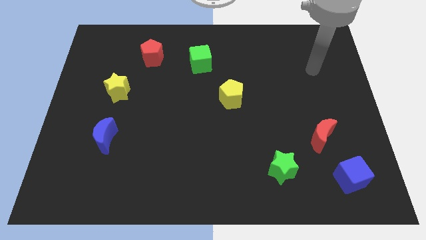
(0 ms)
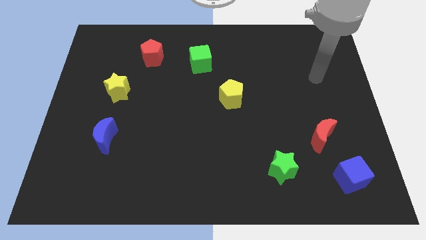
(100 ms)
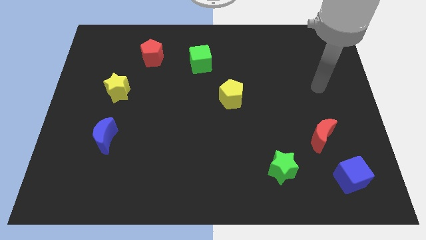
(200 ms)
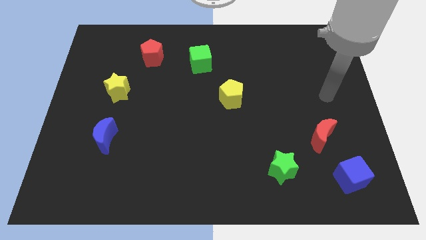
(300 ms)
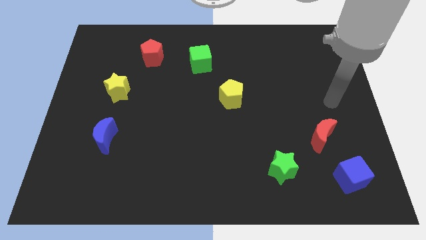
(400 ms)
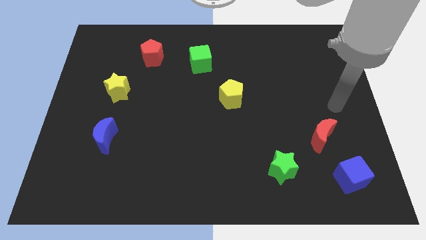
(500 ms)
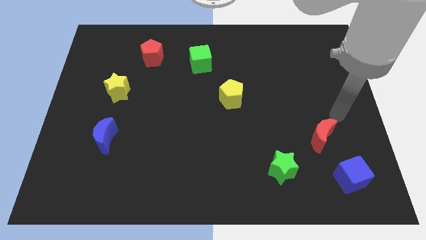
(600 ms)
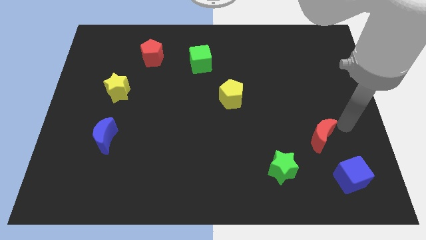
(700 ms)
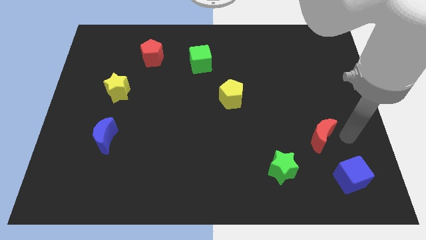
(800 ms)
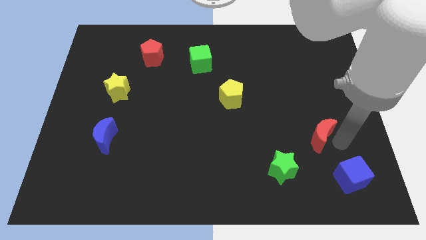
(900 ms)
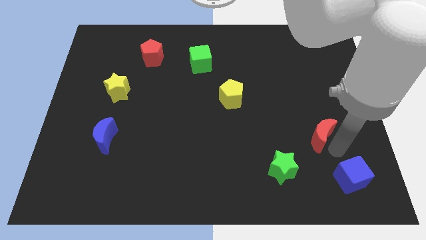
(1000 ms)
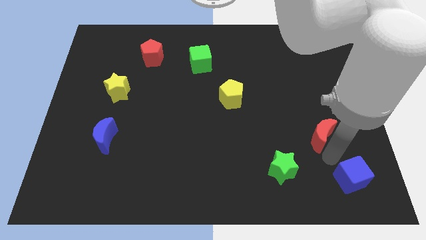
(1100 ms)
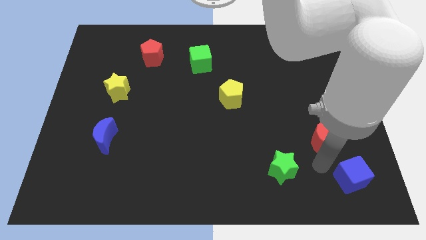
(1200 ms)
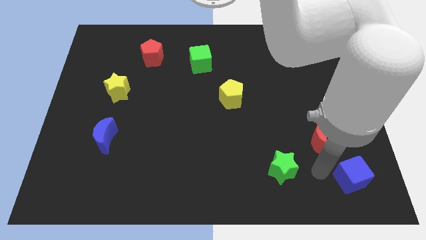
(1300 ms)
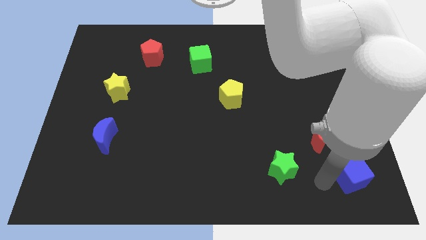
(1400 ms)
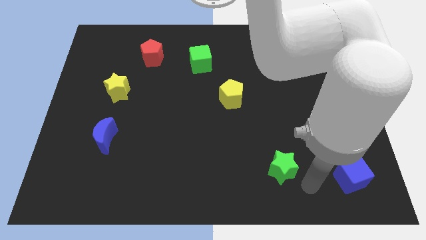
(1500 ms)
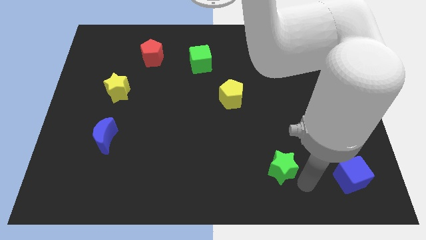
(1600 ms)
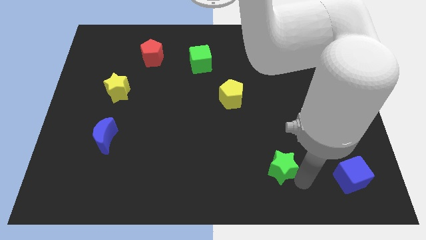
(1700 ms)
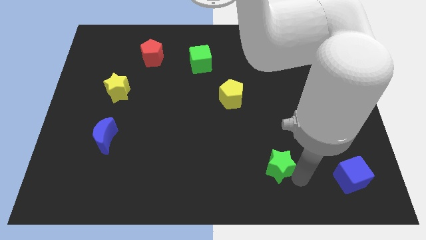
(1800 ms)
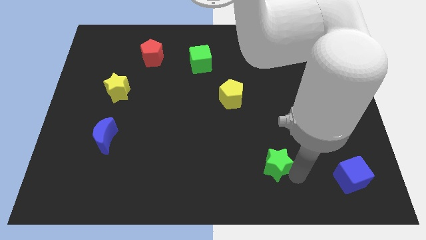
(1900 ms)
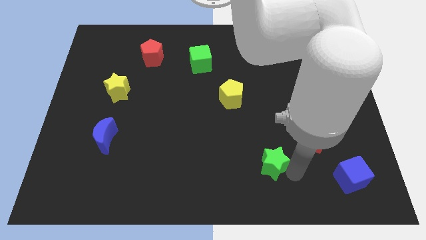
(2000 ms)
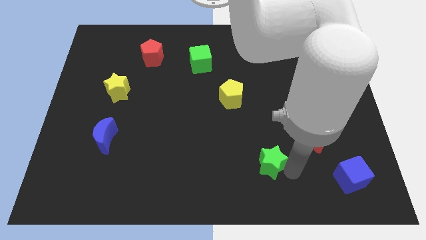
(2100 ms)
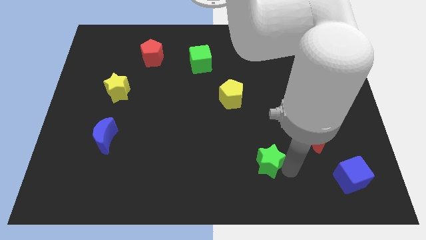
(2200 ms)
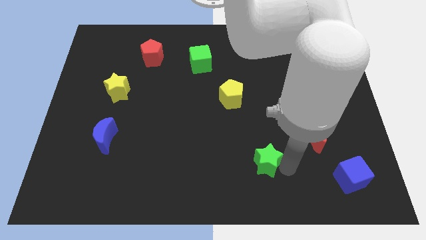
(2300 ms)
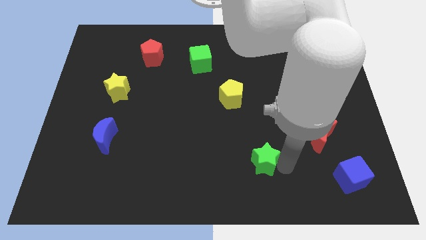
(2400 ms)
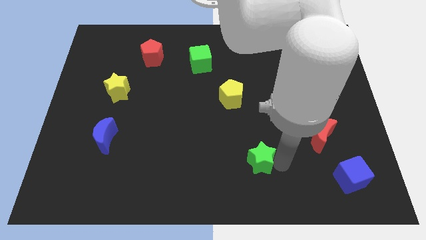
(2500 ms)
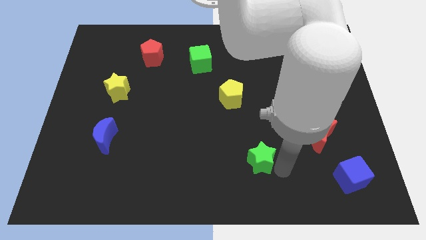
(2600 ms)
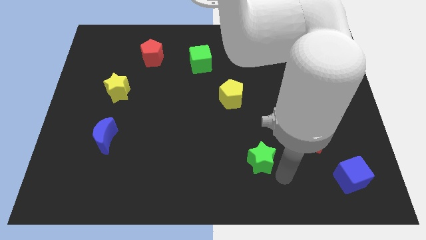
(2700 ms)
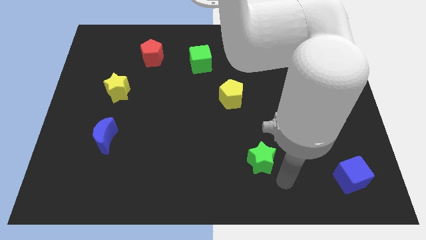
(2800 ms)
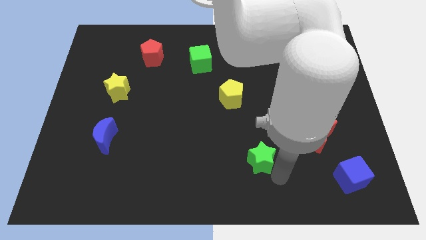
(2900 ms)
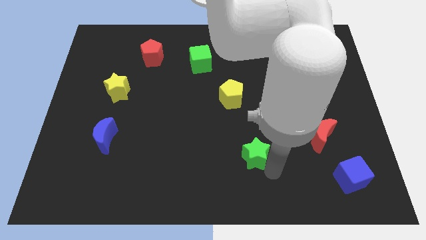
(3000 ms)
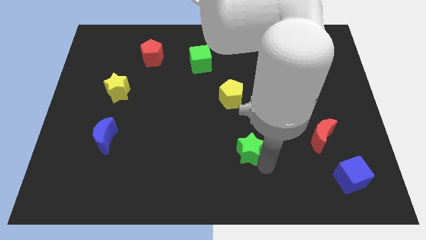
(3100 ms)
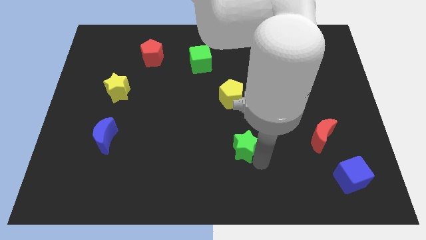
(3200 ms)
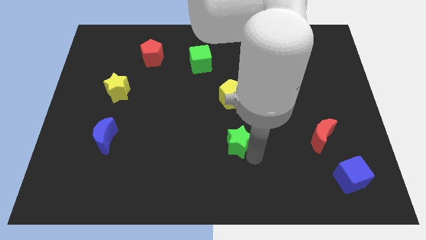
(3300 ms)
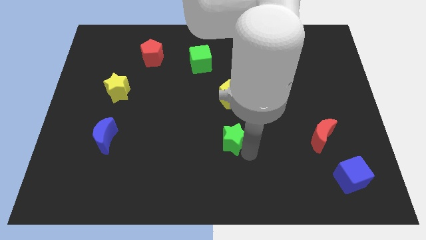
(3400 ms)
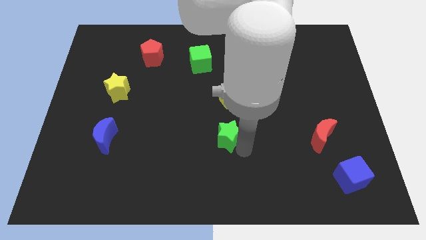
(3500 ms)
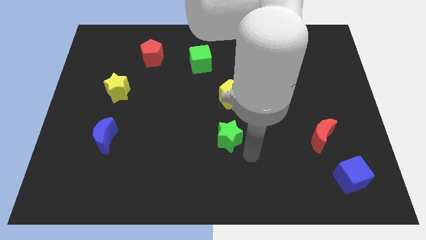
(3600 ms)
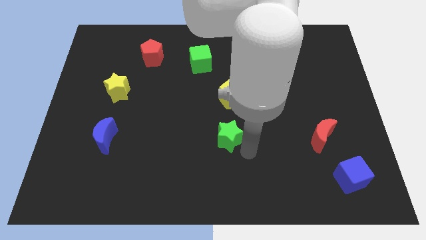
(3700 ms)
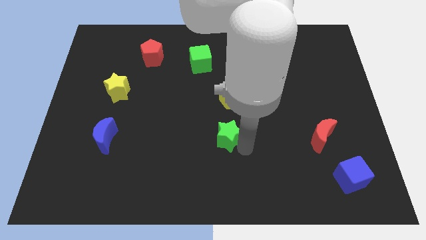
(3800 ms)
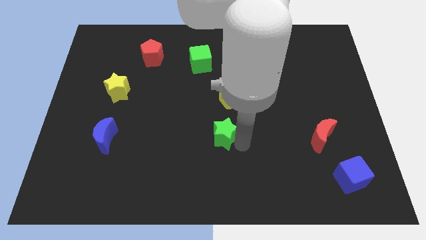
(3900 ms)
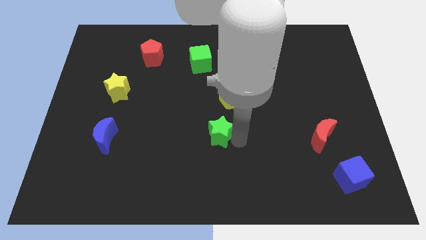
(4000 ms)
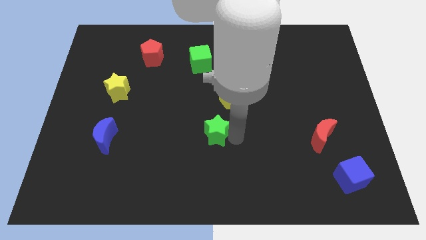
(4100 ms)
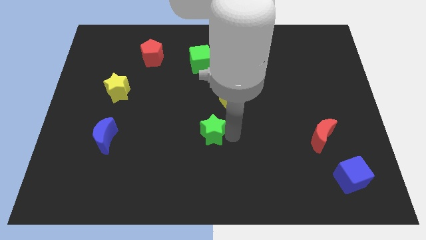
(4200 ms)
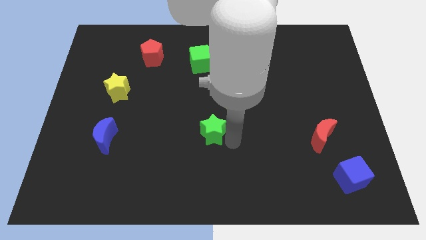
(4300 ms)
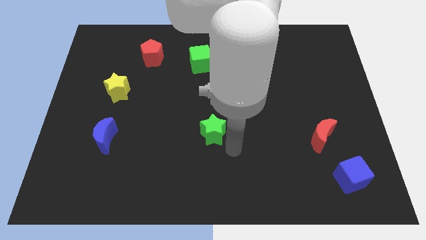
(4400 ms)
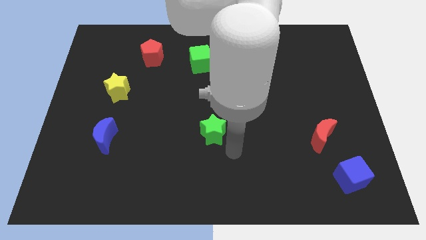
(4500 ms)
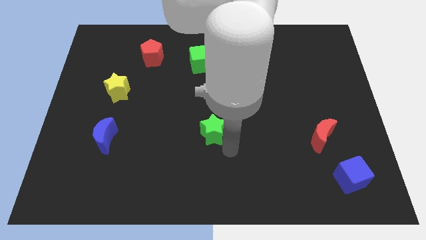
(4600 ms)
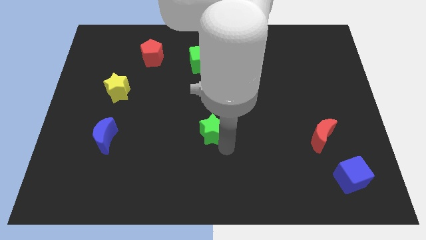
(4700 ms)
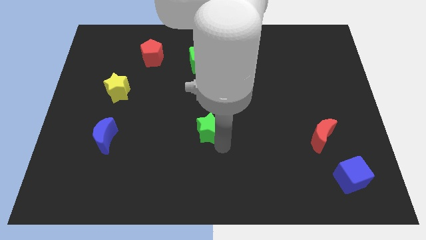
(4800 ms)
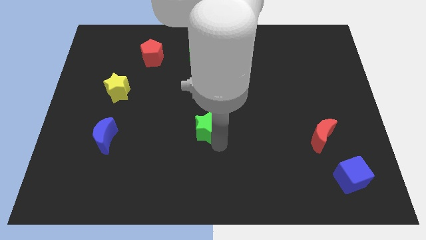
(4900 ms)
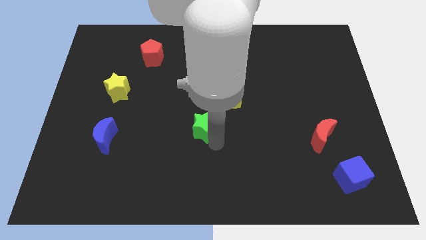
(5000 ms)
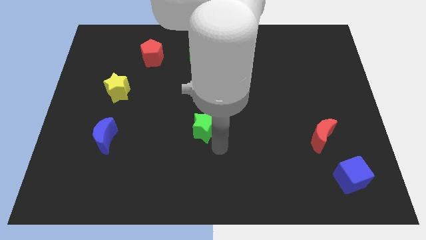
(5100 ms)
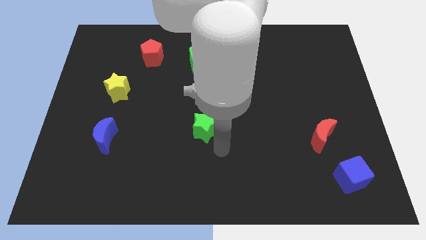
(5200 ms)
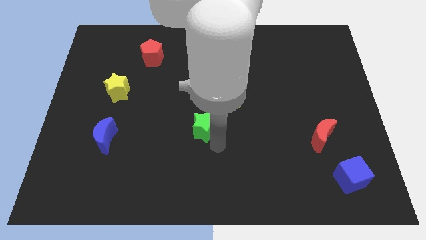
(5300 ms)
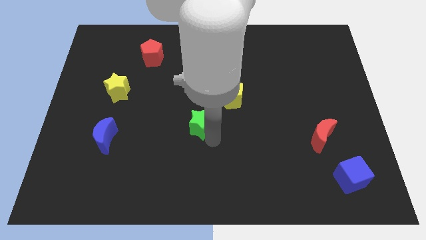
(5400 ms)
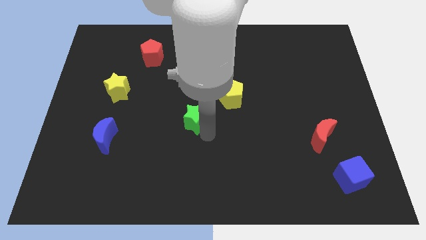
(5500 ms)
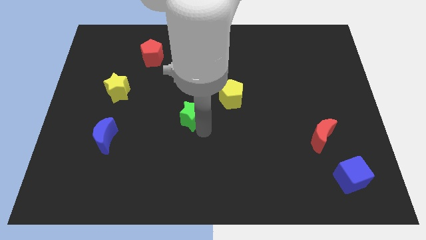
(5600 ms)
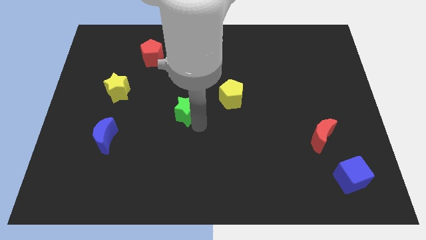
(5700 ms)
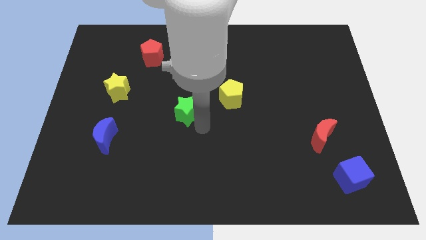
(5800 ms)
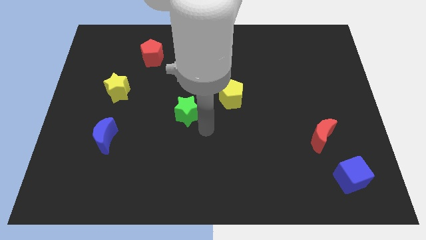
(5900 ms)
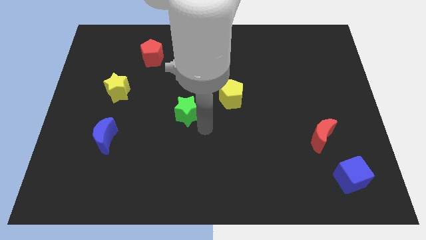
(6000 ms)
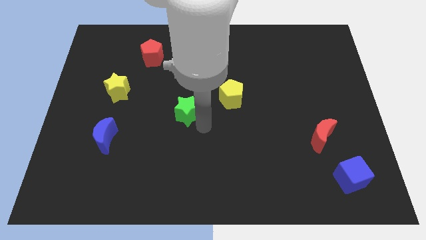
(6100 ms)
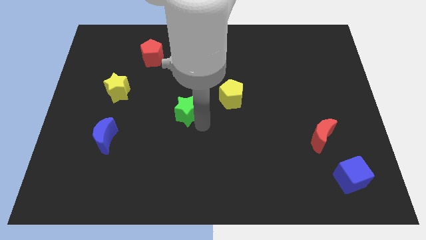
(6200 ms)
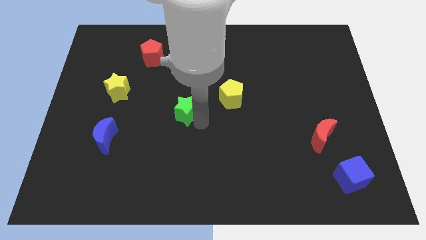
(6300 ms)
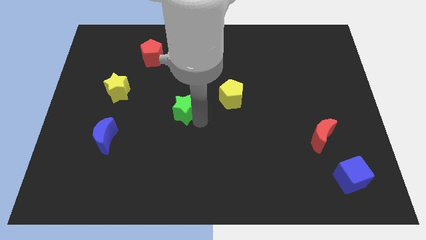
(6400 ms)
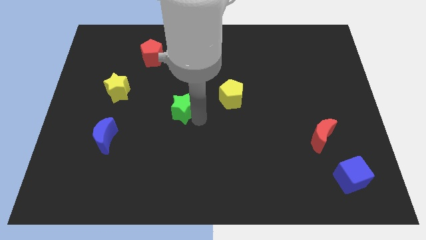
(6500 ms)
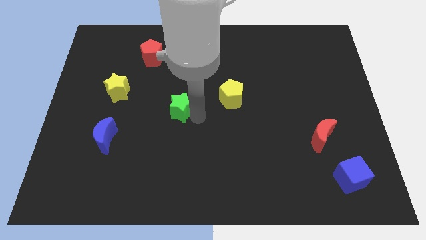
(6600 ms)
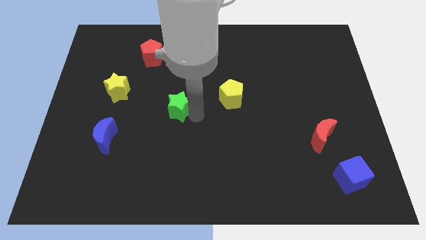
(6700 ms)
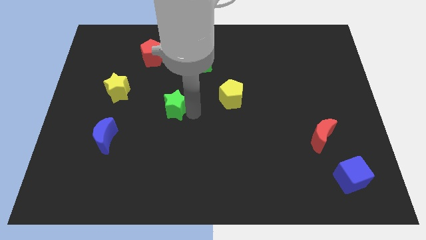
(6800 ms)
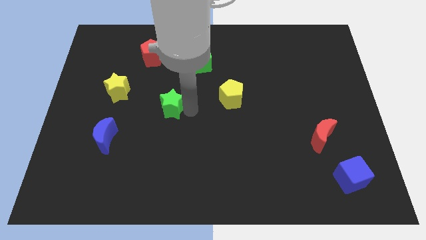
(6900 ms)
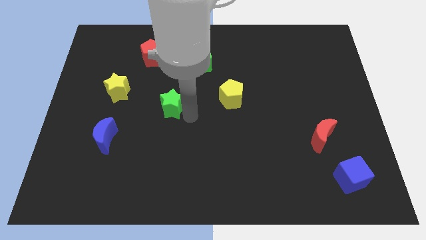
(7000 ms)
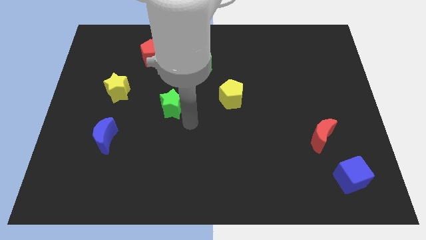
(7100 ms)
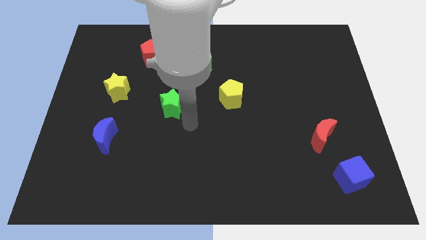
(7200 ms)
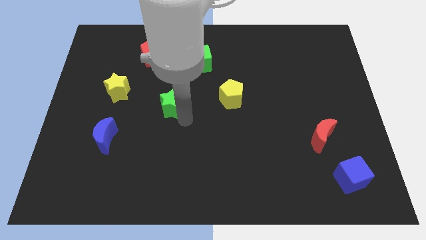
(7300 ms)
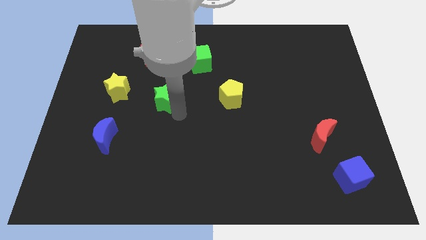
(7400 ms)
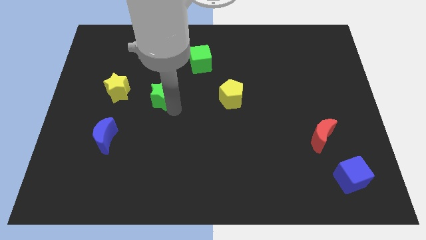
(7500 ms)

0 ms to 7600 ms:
put the green star below the red pentagon

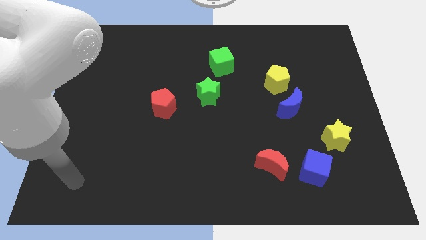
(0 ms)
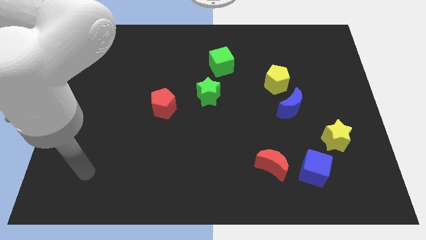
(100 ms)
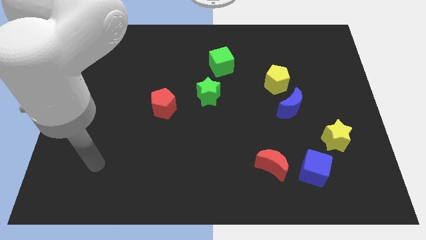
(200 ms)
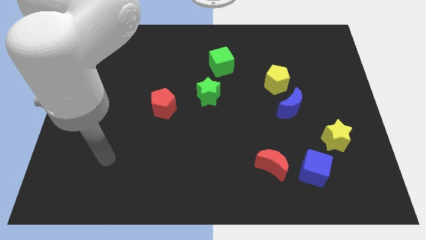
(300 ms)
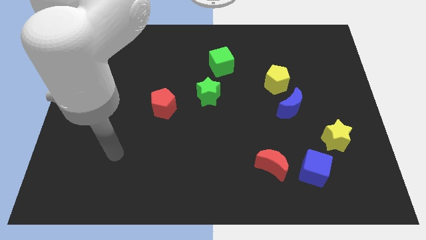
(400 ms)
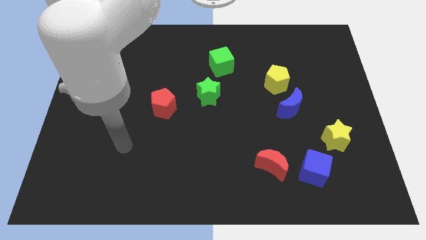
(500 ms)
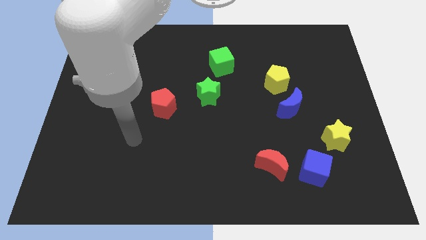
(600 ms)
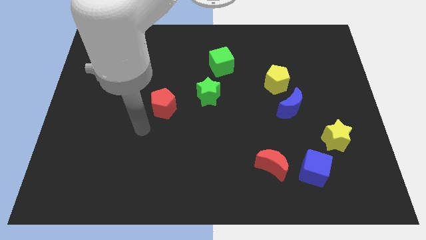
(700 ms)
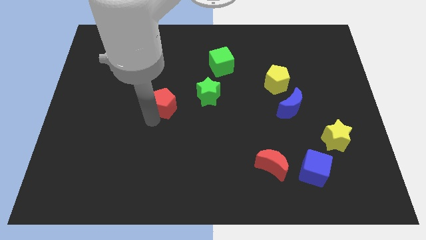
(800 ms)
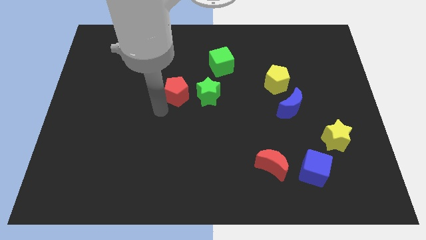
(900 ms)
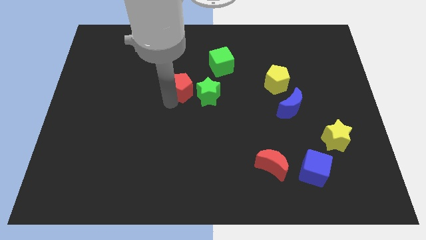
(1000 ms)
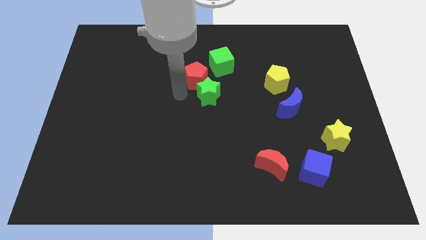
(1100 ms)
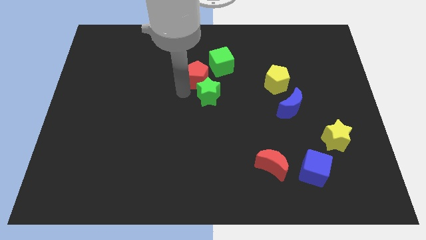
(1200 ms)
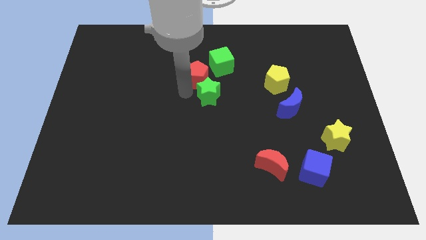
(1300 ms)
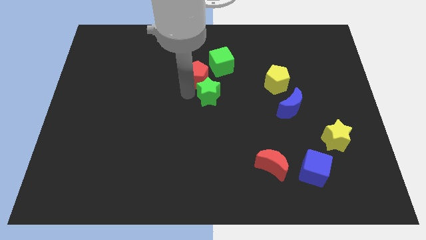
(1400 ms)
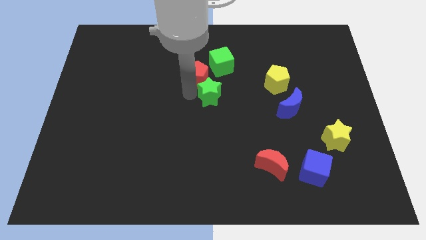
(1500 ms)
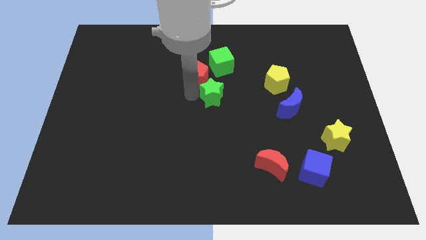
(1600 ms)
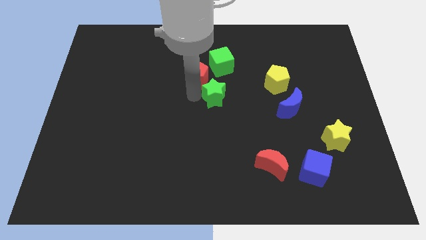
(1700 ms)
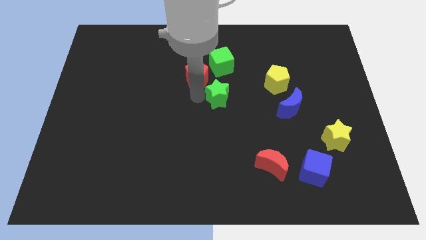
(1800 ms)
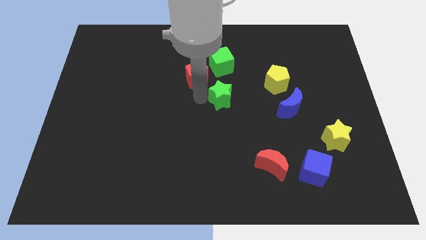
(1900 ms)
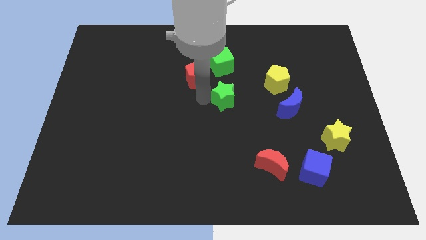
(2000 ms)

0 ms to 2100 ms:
put the green star just left of the blue moon
